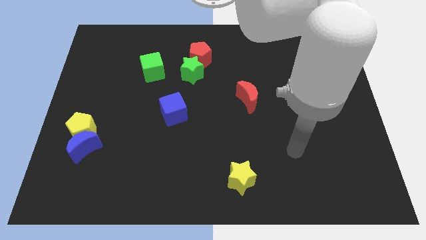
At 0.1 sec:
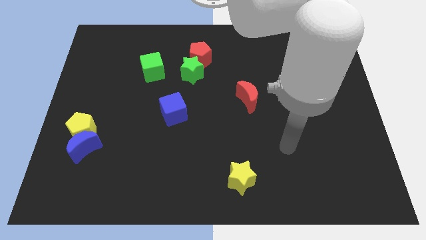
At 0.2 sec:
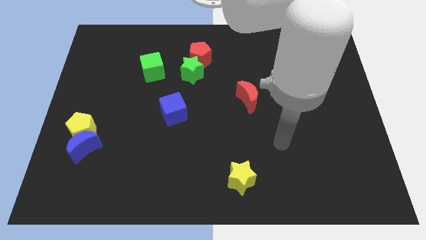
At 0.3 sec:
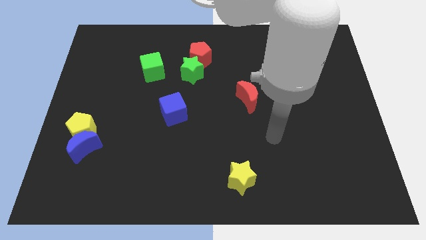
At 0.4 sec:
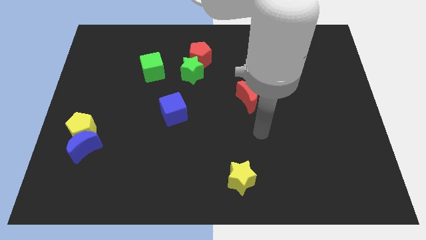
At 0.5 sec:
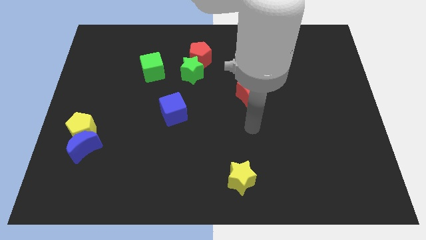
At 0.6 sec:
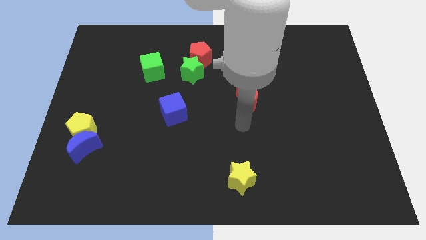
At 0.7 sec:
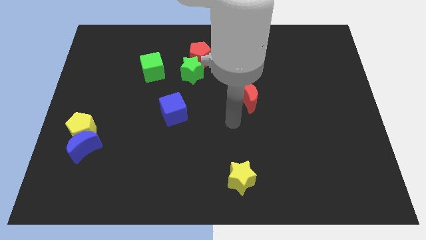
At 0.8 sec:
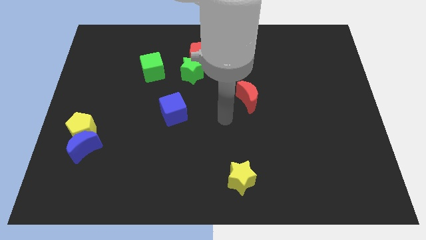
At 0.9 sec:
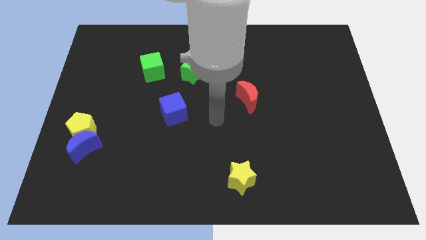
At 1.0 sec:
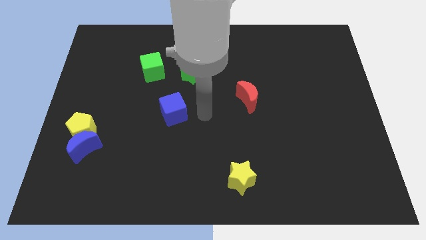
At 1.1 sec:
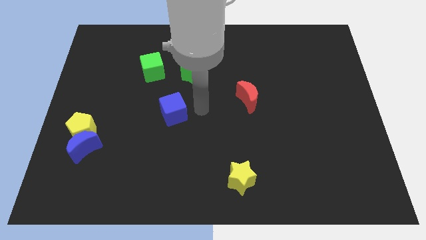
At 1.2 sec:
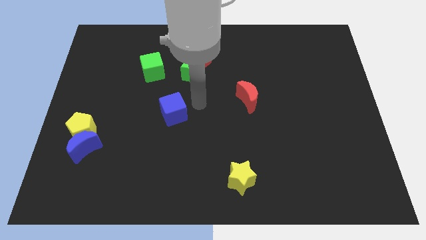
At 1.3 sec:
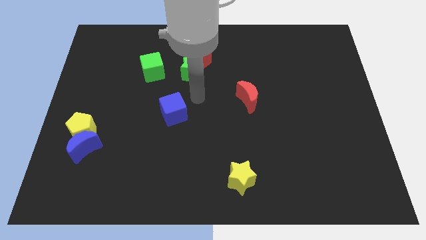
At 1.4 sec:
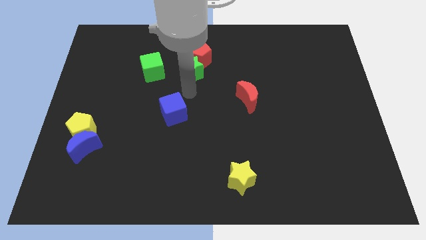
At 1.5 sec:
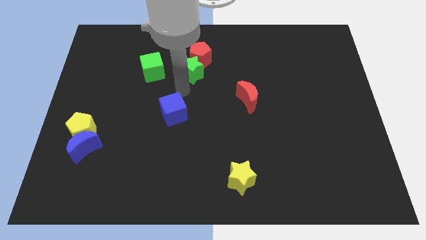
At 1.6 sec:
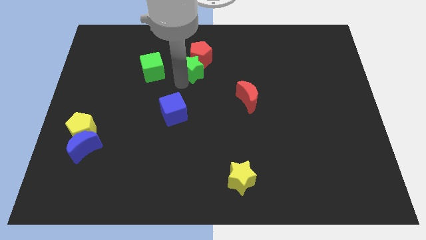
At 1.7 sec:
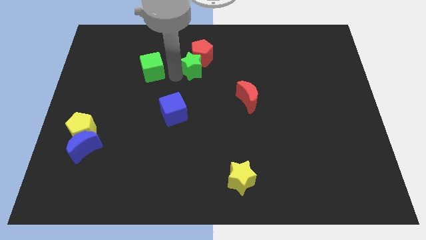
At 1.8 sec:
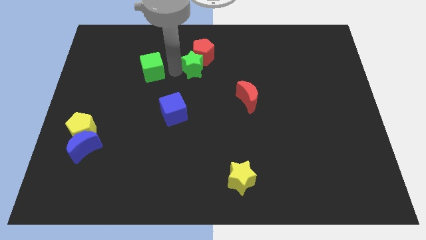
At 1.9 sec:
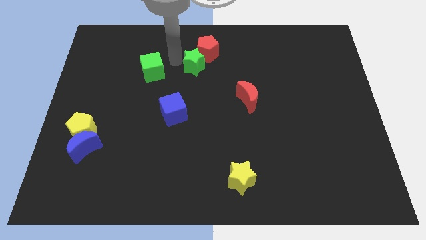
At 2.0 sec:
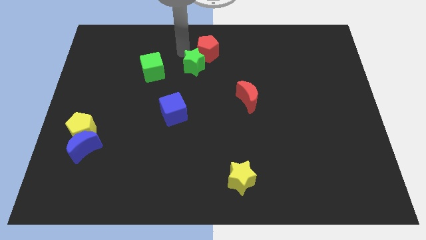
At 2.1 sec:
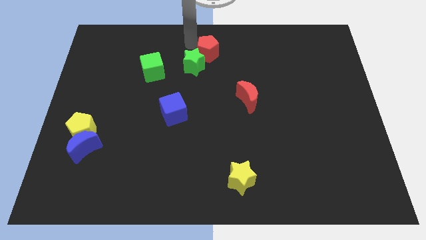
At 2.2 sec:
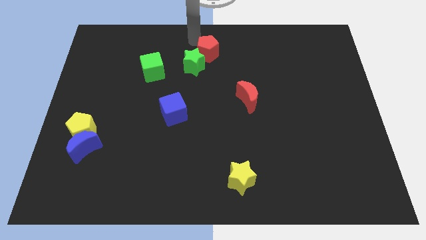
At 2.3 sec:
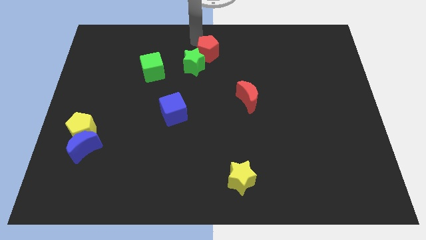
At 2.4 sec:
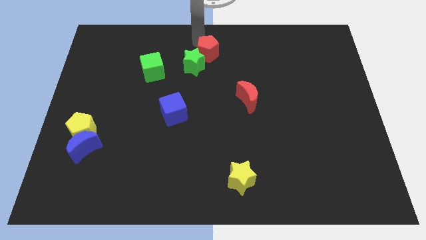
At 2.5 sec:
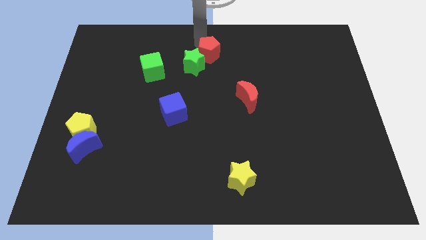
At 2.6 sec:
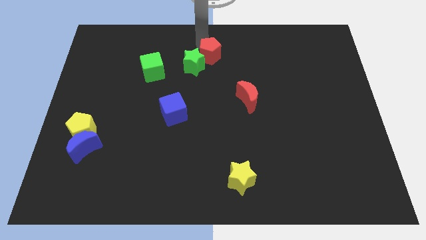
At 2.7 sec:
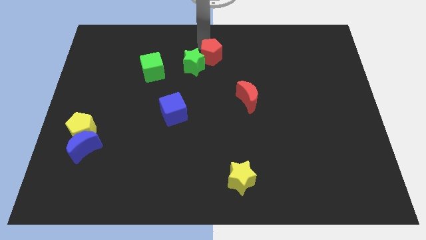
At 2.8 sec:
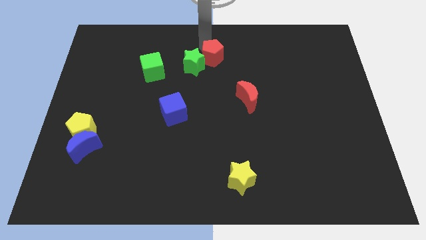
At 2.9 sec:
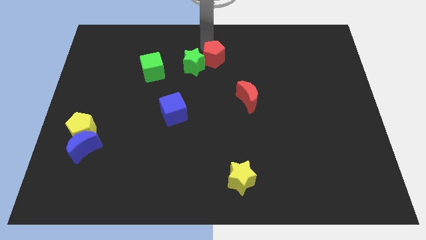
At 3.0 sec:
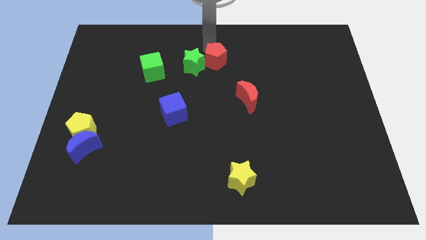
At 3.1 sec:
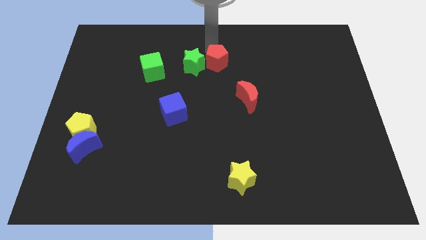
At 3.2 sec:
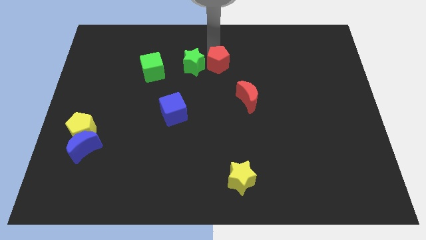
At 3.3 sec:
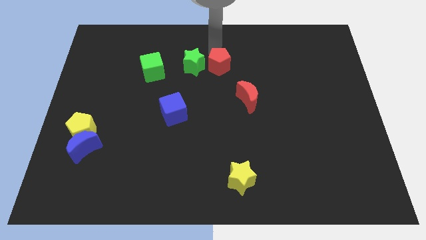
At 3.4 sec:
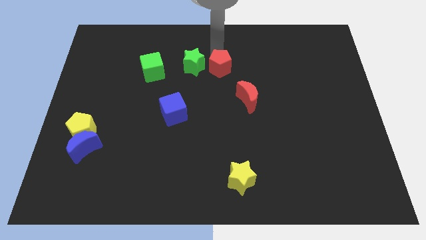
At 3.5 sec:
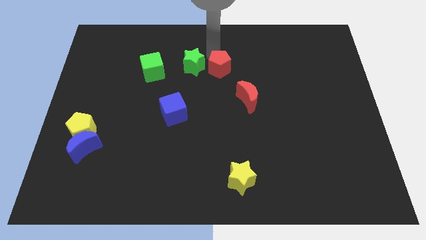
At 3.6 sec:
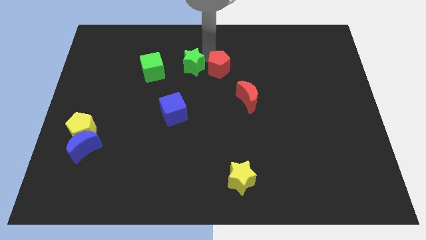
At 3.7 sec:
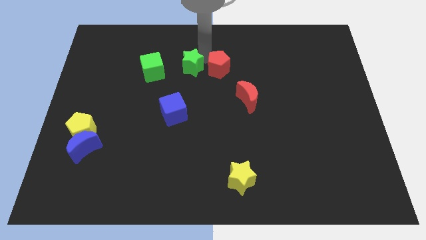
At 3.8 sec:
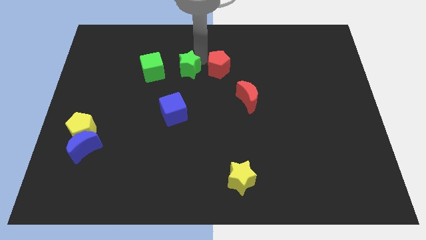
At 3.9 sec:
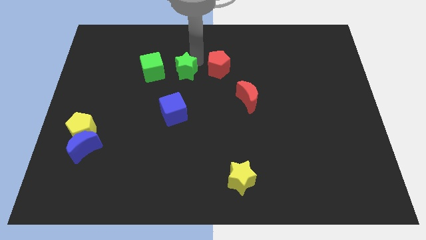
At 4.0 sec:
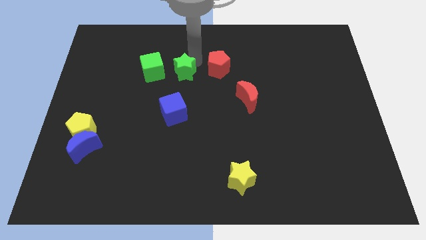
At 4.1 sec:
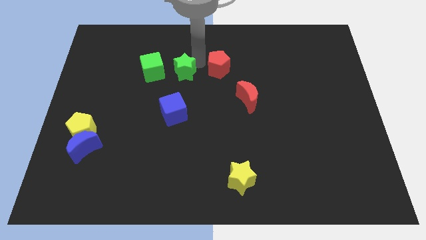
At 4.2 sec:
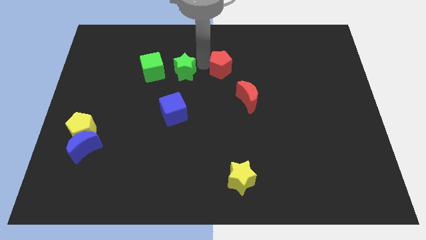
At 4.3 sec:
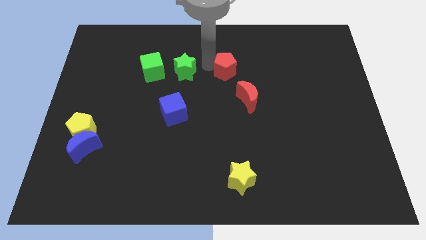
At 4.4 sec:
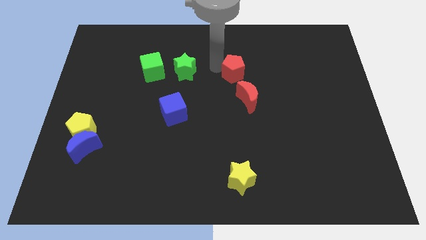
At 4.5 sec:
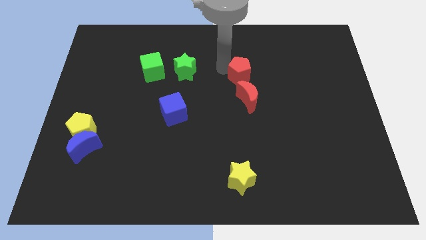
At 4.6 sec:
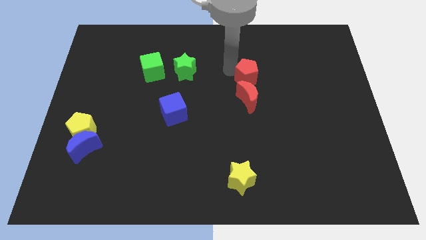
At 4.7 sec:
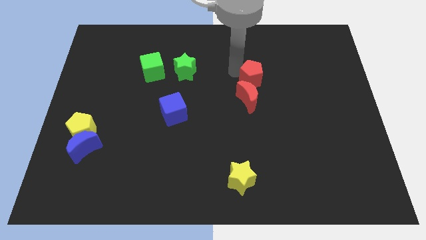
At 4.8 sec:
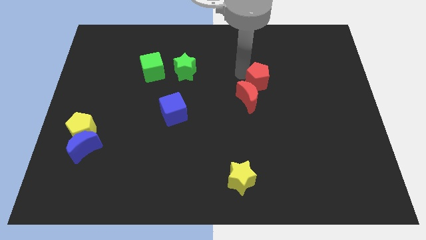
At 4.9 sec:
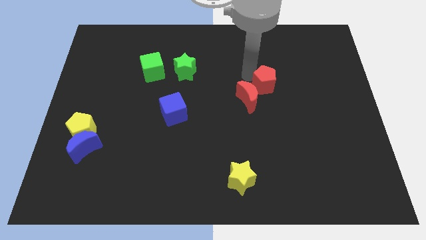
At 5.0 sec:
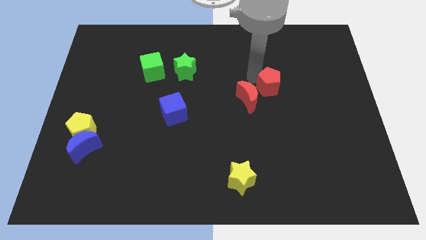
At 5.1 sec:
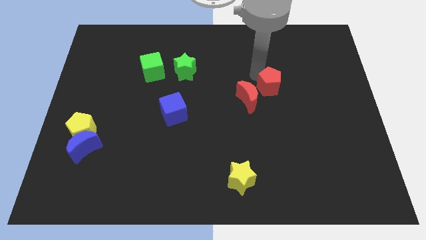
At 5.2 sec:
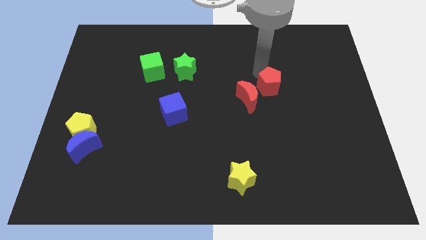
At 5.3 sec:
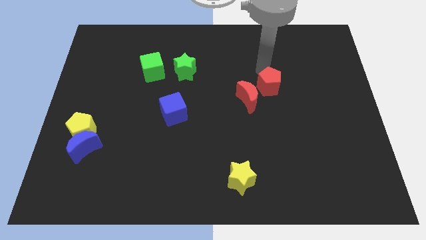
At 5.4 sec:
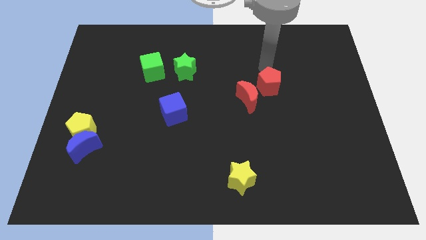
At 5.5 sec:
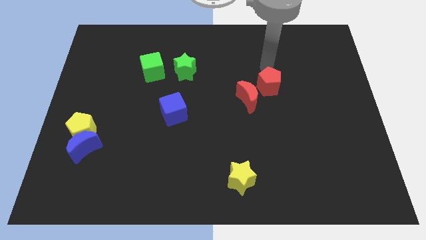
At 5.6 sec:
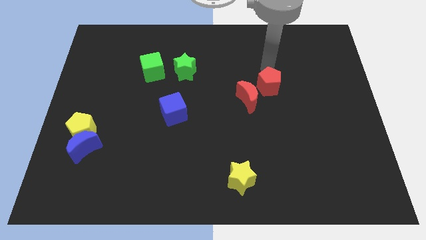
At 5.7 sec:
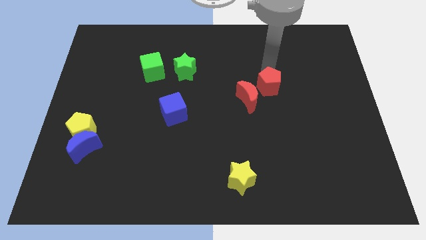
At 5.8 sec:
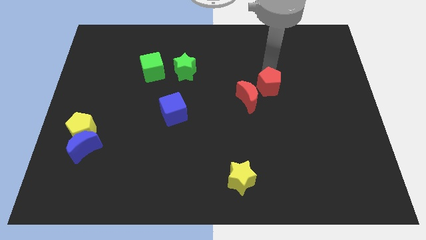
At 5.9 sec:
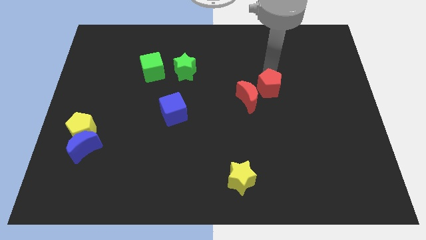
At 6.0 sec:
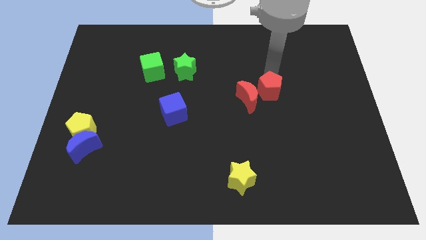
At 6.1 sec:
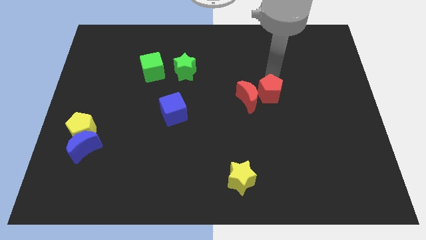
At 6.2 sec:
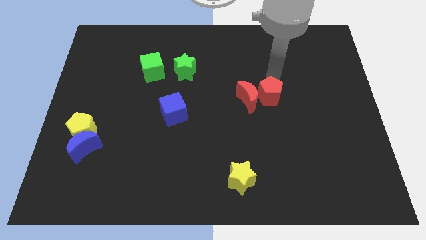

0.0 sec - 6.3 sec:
push the red pentagon to the bottom right side of the red moon
